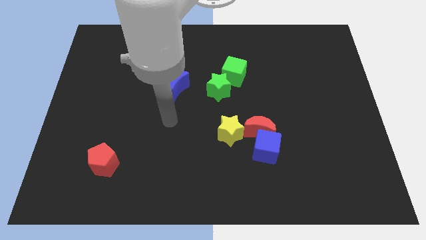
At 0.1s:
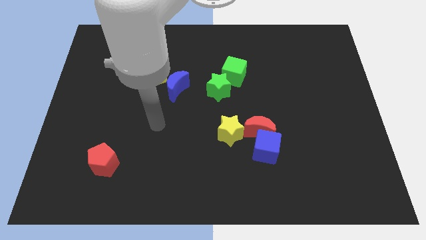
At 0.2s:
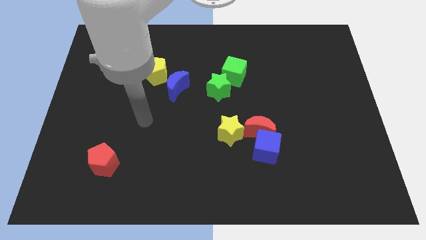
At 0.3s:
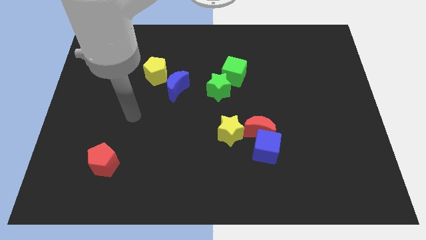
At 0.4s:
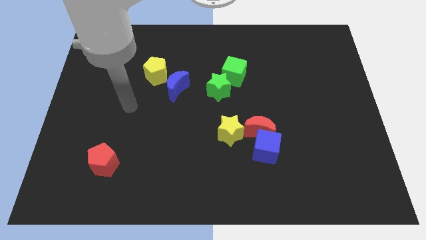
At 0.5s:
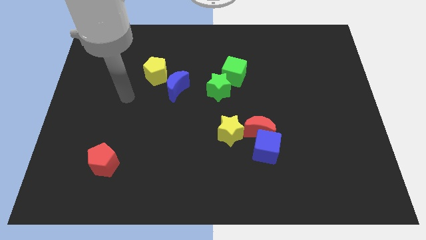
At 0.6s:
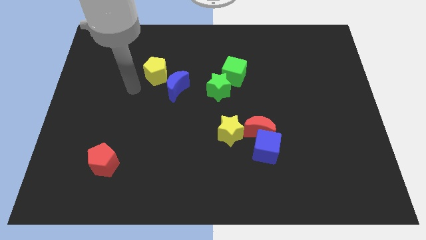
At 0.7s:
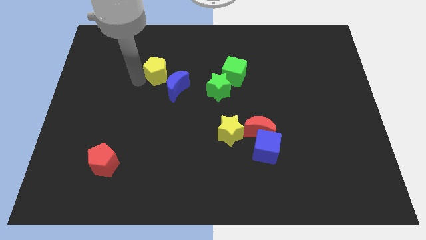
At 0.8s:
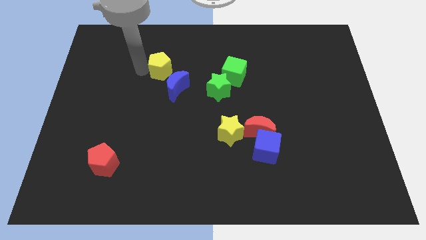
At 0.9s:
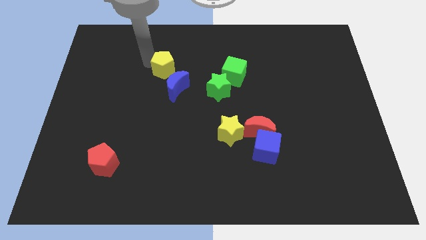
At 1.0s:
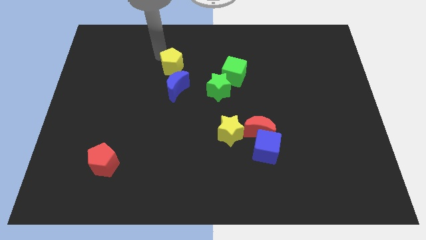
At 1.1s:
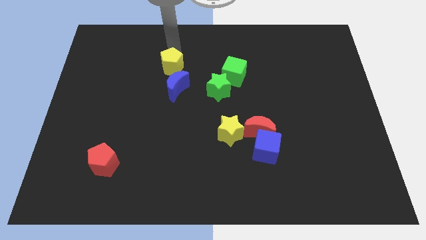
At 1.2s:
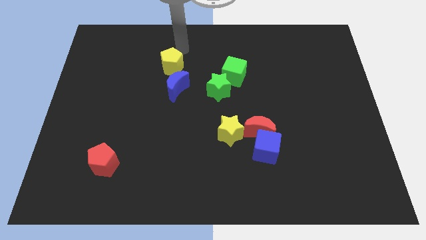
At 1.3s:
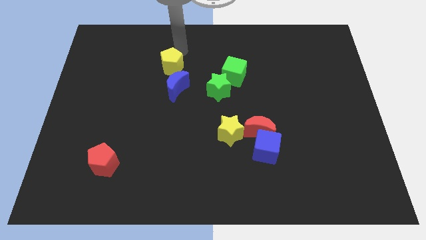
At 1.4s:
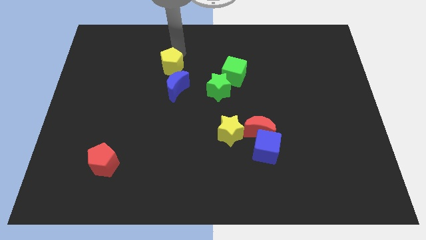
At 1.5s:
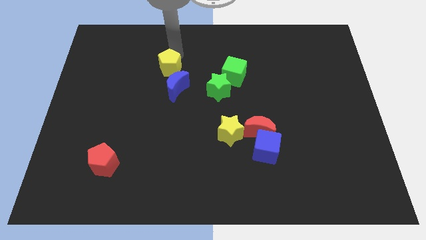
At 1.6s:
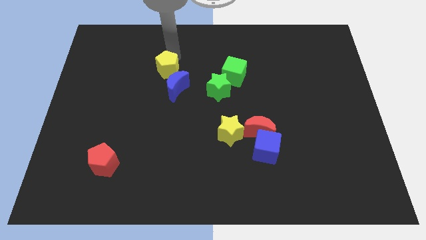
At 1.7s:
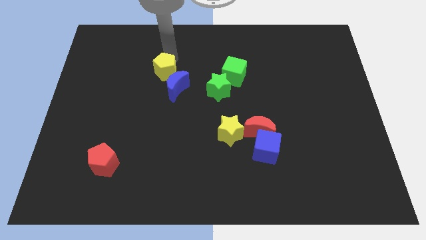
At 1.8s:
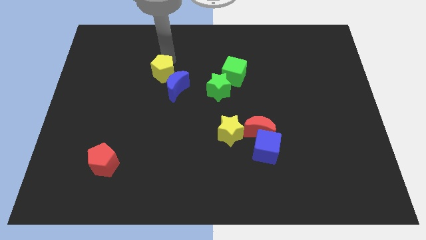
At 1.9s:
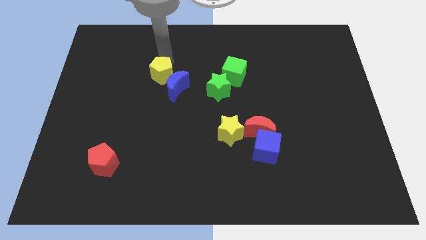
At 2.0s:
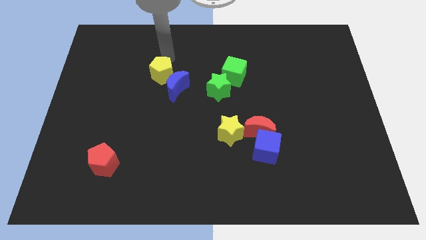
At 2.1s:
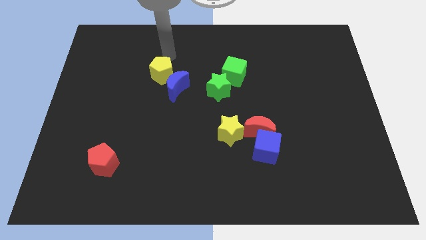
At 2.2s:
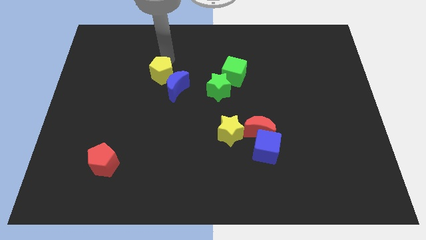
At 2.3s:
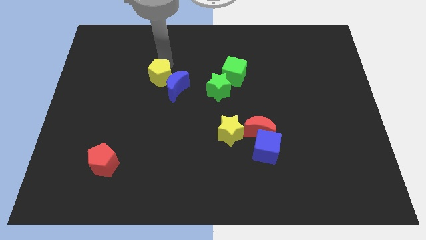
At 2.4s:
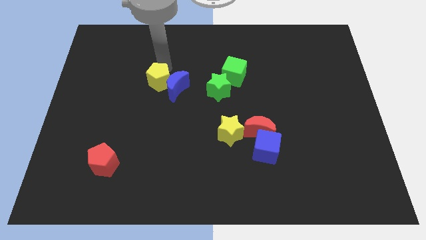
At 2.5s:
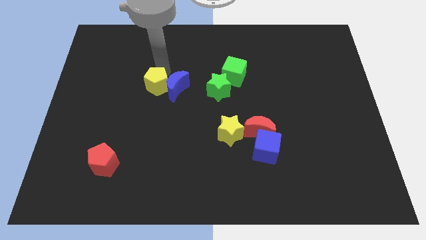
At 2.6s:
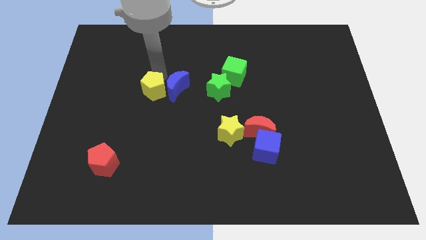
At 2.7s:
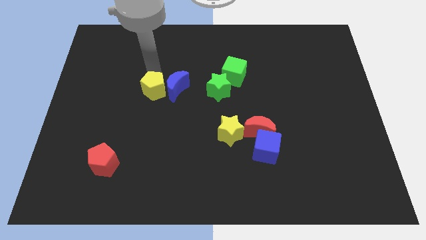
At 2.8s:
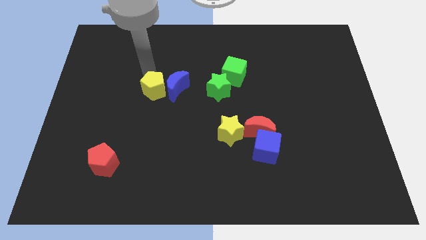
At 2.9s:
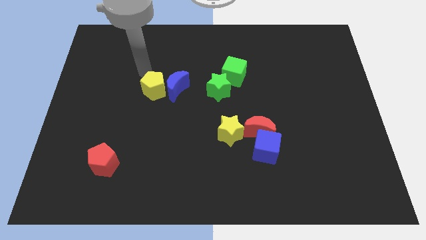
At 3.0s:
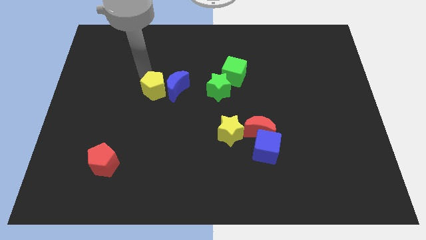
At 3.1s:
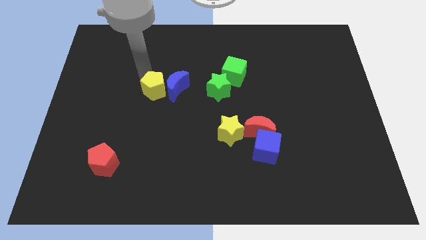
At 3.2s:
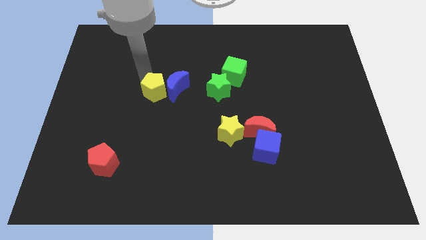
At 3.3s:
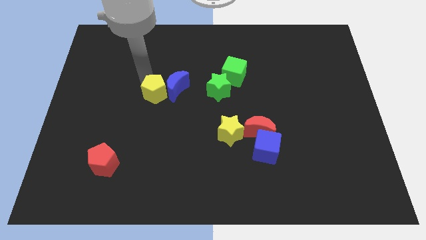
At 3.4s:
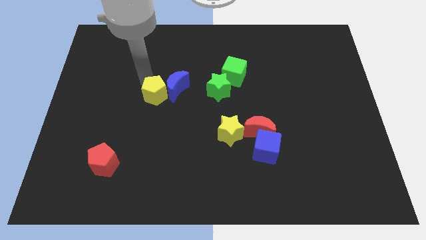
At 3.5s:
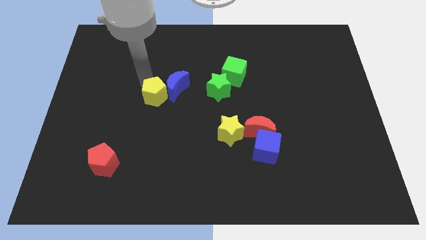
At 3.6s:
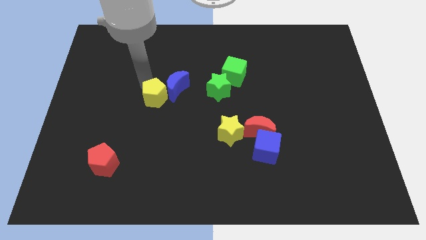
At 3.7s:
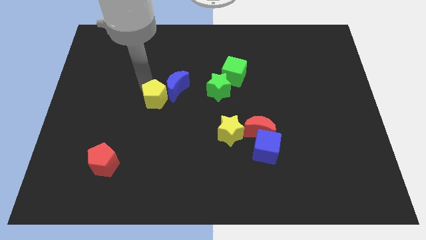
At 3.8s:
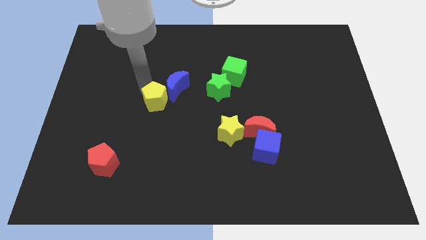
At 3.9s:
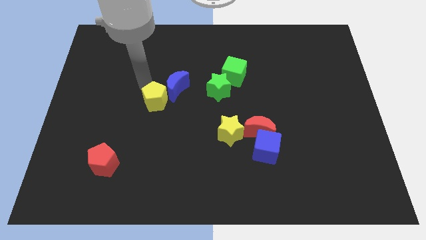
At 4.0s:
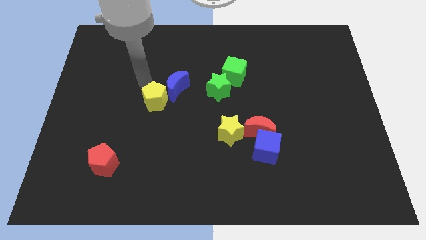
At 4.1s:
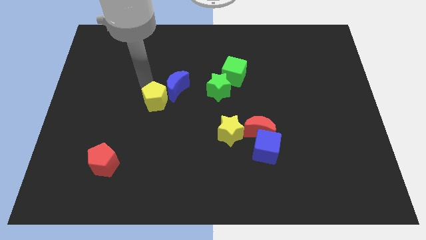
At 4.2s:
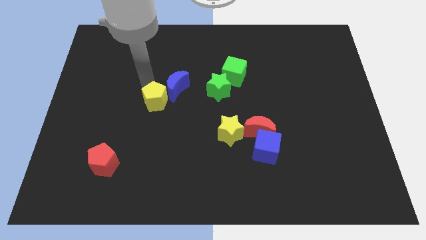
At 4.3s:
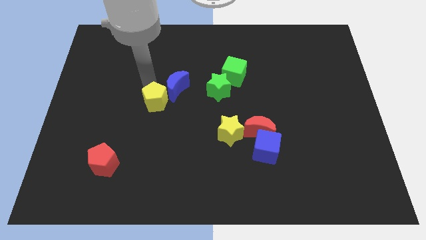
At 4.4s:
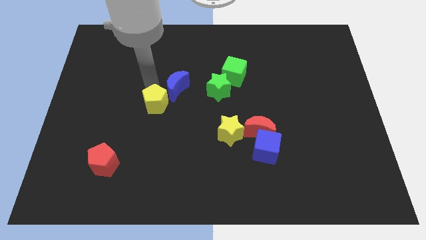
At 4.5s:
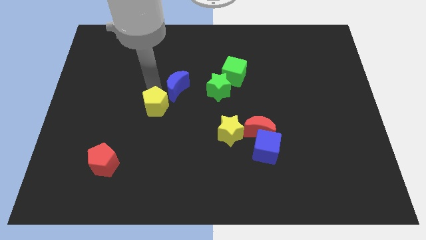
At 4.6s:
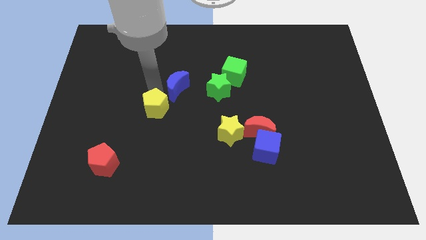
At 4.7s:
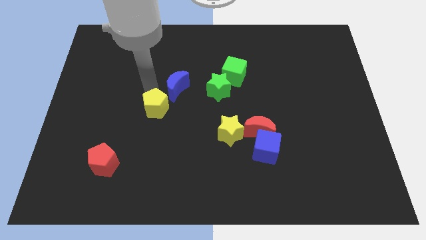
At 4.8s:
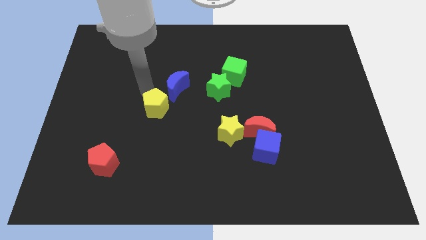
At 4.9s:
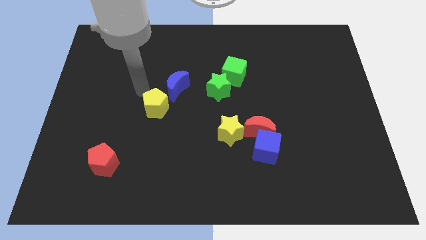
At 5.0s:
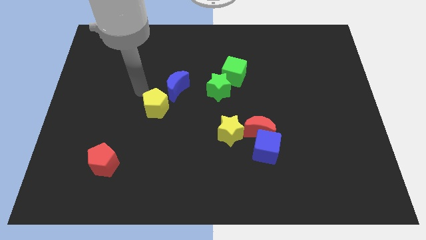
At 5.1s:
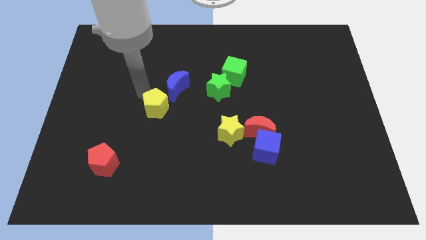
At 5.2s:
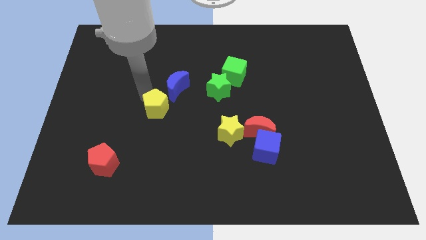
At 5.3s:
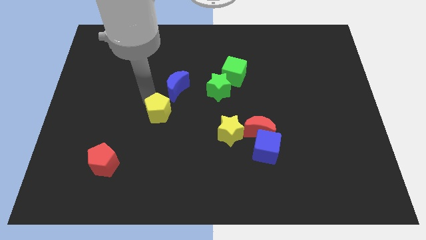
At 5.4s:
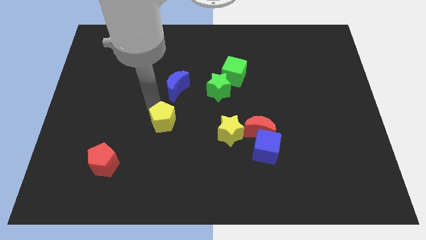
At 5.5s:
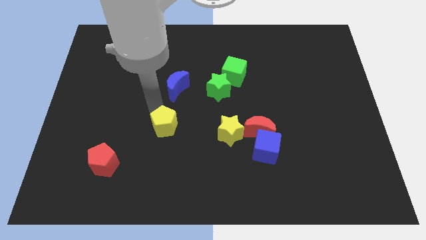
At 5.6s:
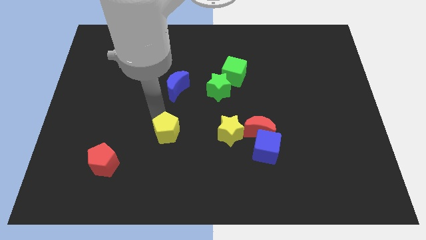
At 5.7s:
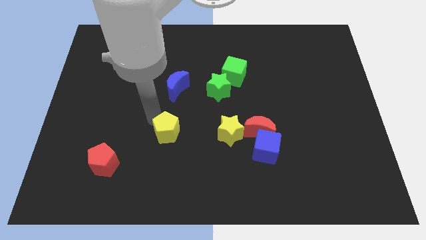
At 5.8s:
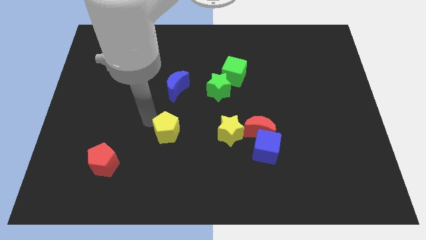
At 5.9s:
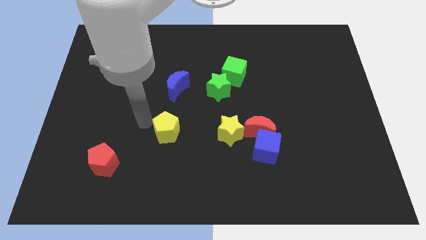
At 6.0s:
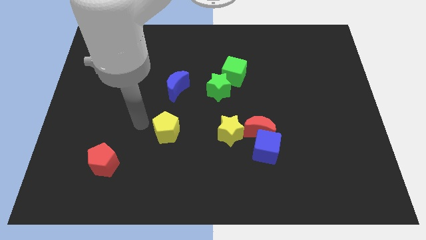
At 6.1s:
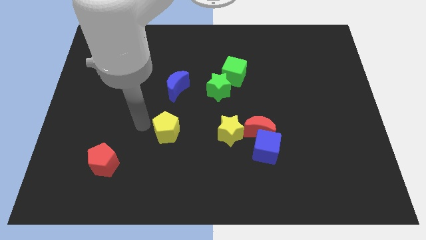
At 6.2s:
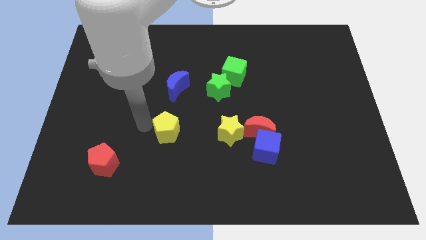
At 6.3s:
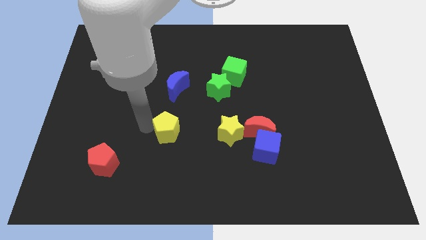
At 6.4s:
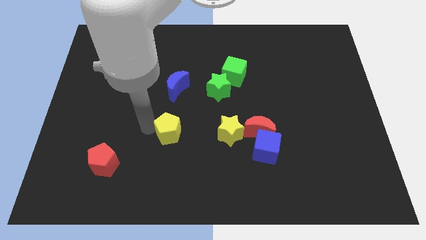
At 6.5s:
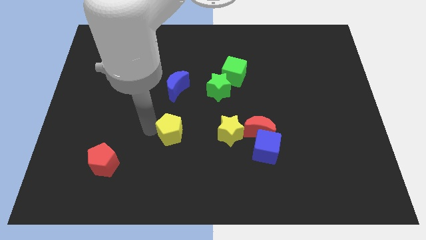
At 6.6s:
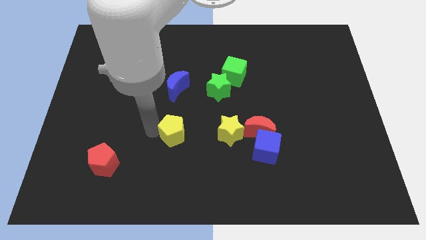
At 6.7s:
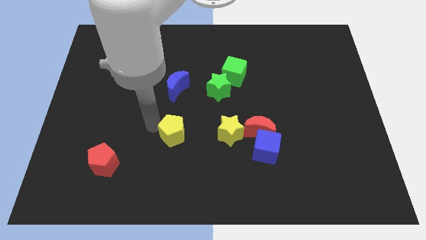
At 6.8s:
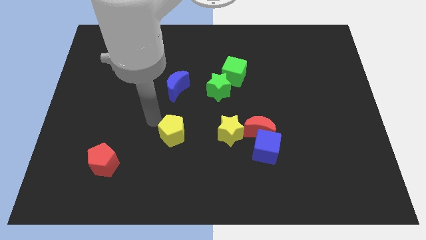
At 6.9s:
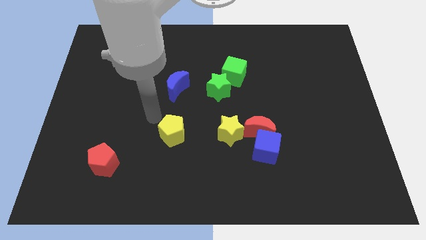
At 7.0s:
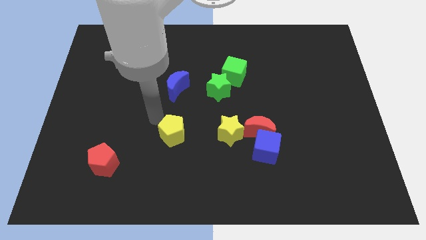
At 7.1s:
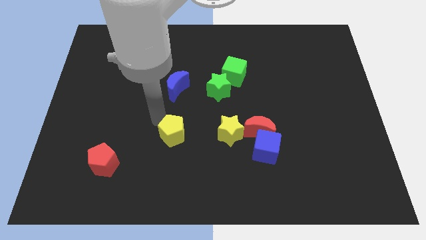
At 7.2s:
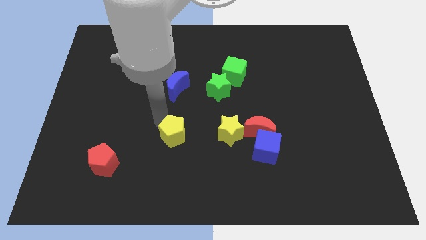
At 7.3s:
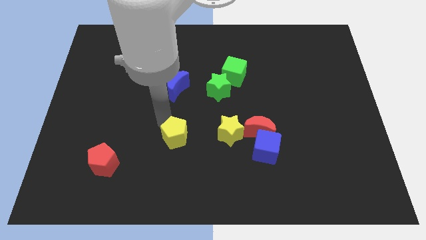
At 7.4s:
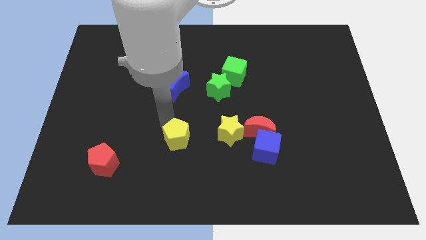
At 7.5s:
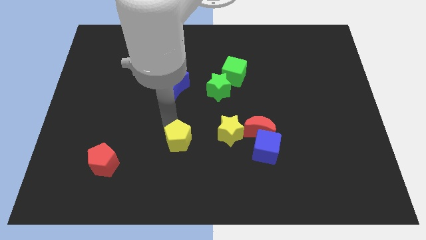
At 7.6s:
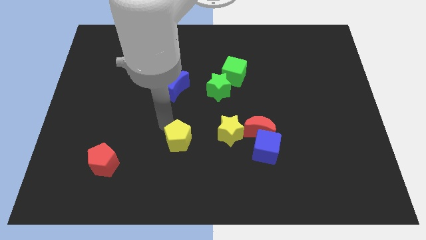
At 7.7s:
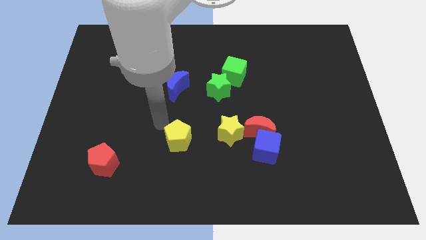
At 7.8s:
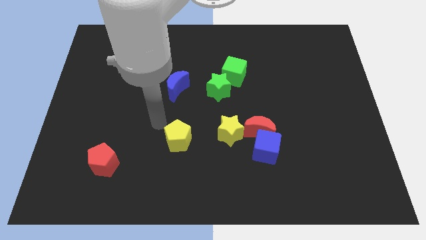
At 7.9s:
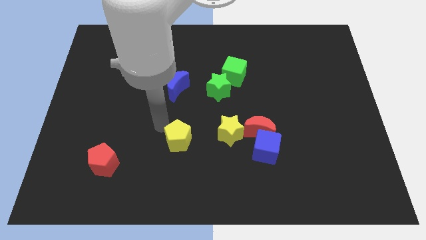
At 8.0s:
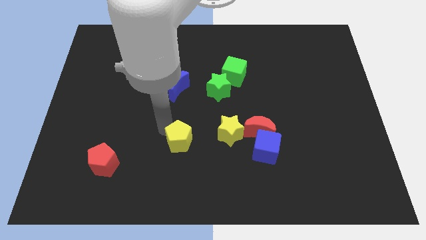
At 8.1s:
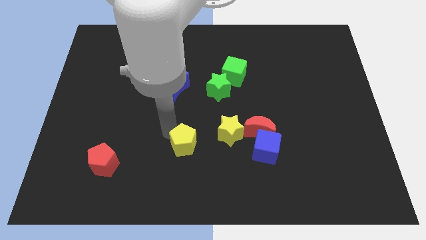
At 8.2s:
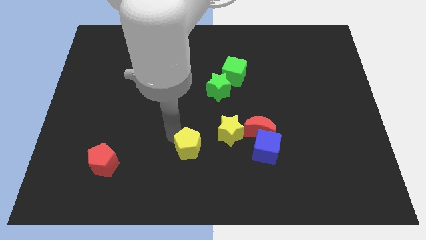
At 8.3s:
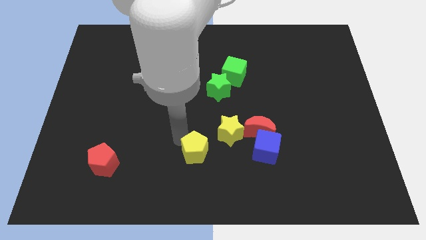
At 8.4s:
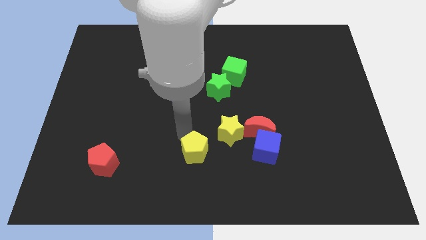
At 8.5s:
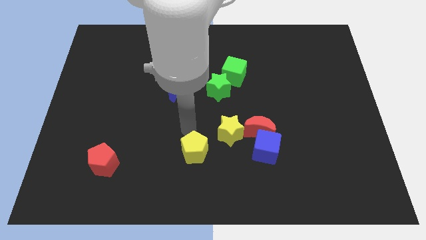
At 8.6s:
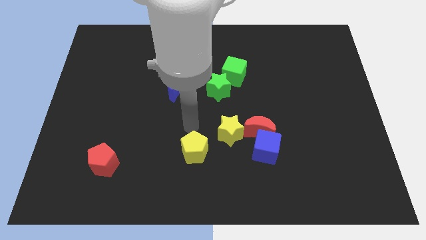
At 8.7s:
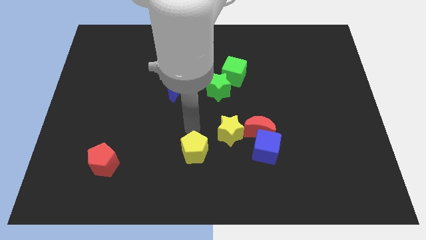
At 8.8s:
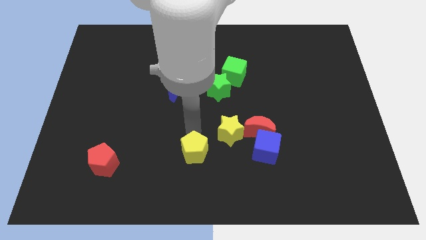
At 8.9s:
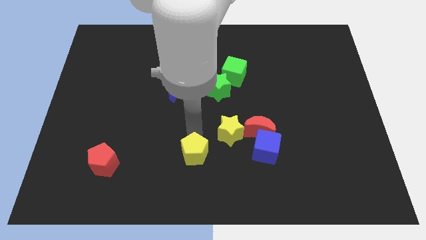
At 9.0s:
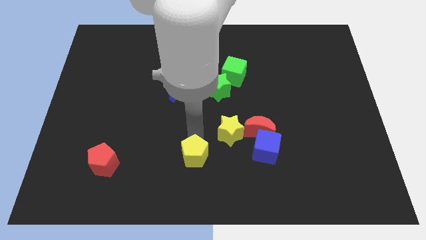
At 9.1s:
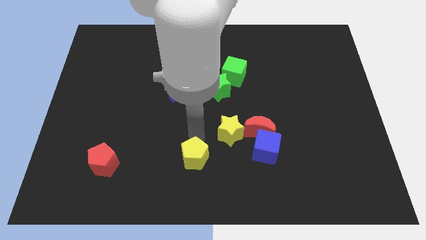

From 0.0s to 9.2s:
slide the yellow pentagon to the bottom
